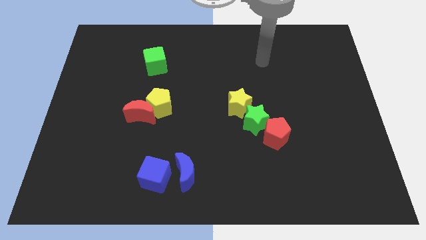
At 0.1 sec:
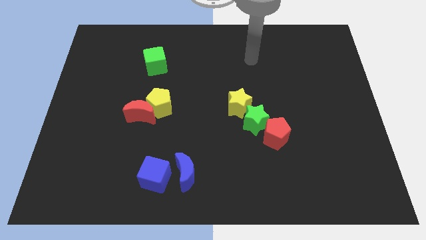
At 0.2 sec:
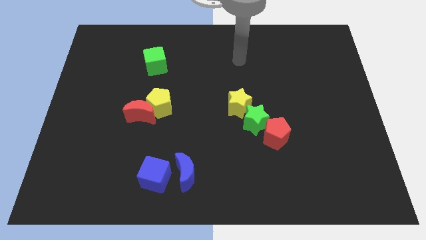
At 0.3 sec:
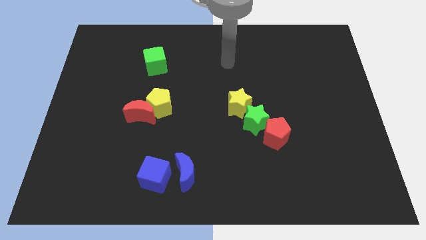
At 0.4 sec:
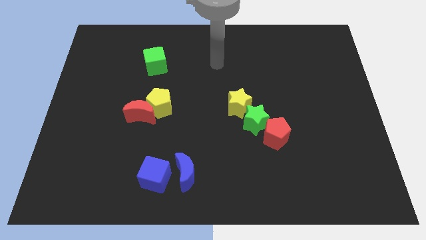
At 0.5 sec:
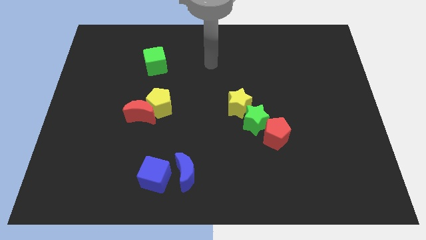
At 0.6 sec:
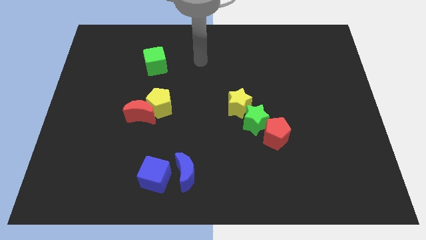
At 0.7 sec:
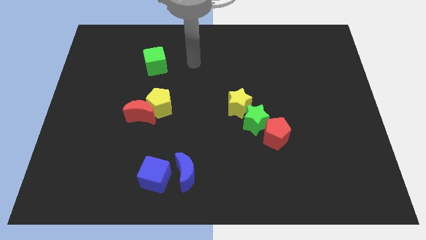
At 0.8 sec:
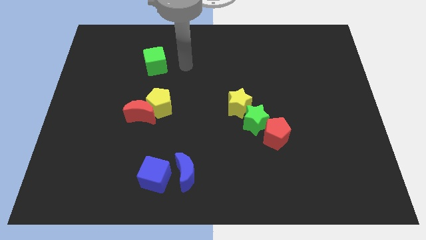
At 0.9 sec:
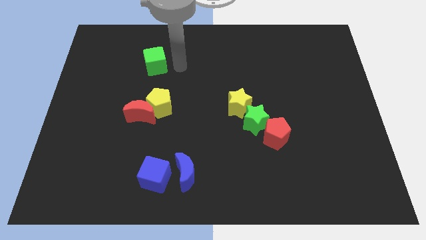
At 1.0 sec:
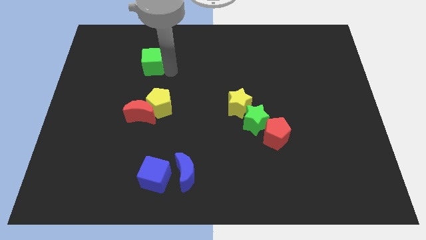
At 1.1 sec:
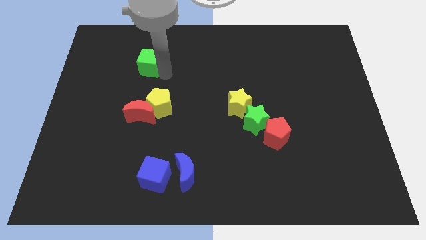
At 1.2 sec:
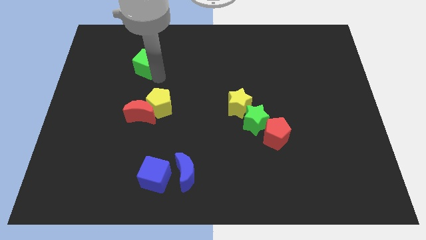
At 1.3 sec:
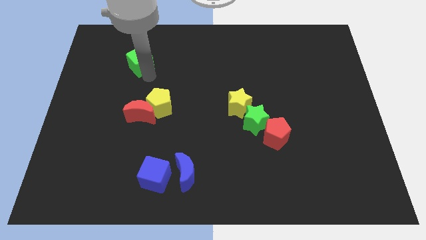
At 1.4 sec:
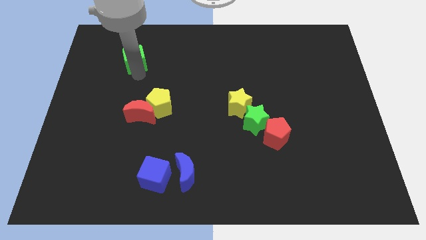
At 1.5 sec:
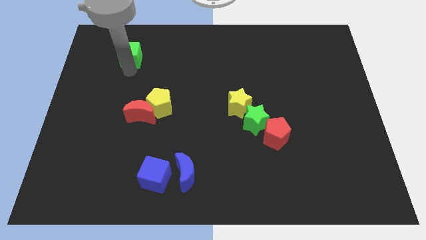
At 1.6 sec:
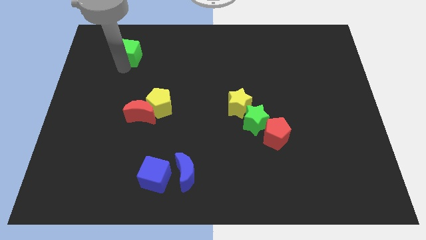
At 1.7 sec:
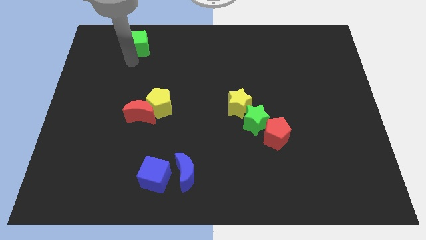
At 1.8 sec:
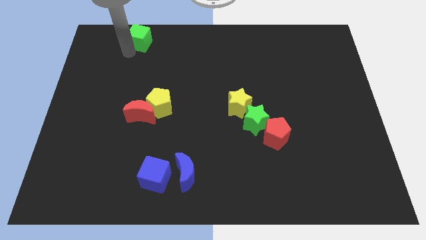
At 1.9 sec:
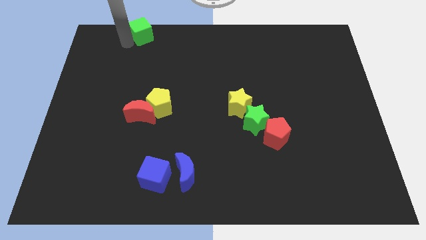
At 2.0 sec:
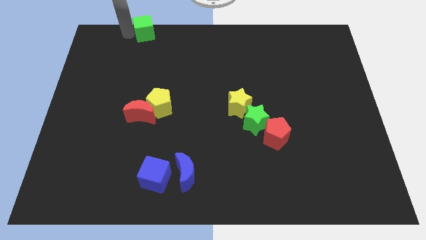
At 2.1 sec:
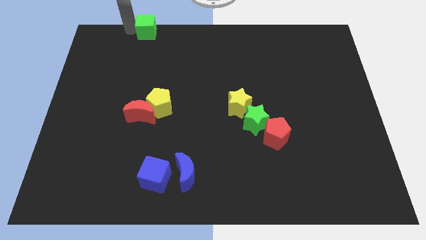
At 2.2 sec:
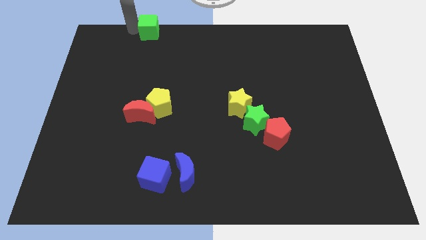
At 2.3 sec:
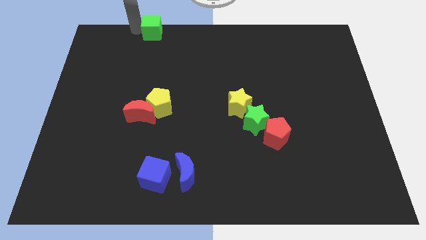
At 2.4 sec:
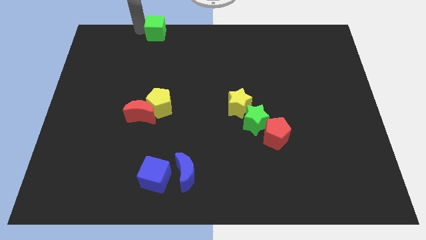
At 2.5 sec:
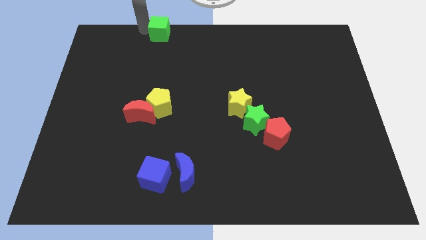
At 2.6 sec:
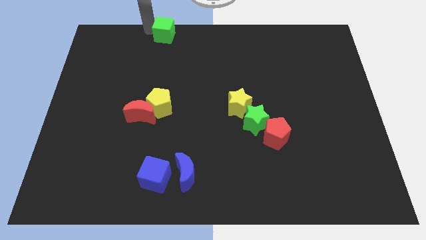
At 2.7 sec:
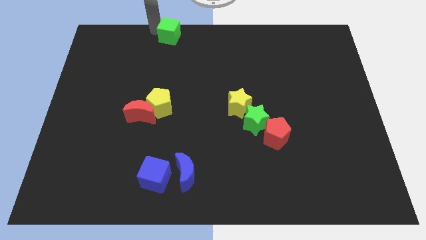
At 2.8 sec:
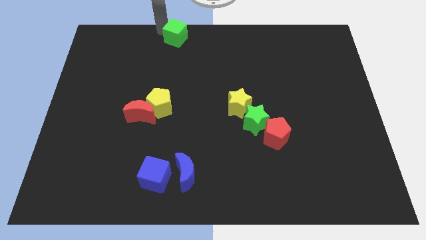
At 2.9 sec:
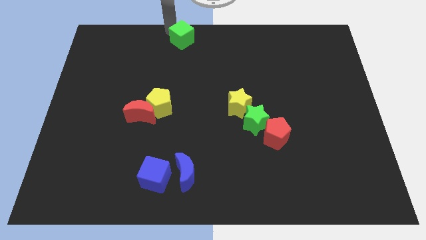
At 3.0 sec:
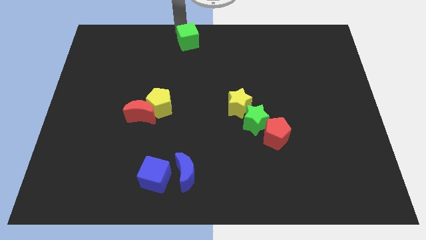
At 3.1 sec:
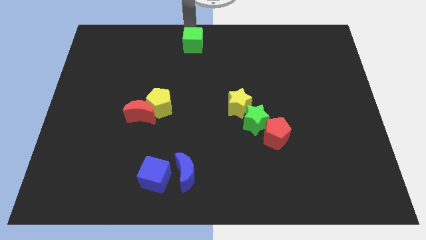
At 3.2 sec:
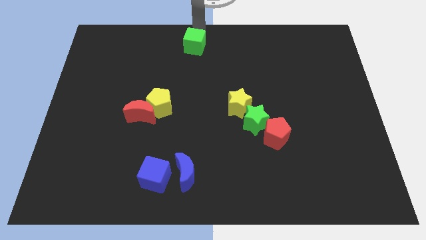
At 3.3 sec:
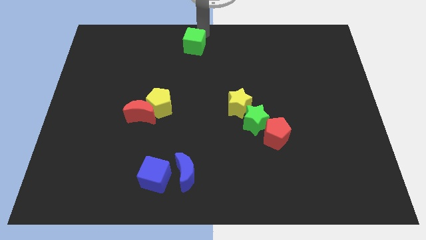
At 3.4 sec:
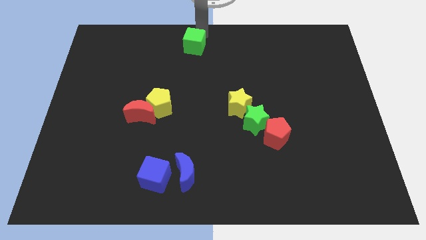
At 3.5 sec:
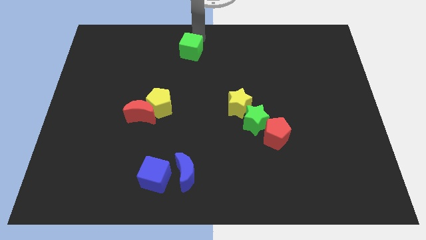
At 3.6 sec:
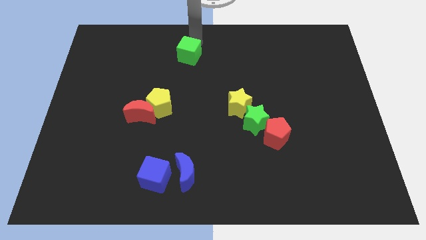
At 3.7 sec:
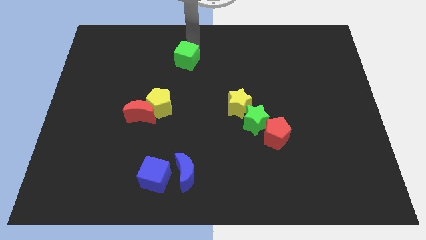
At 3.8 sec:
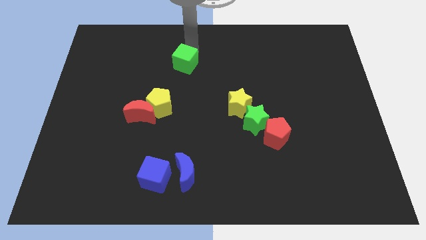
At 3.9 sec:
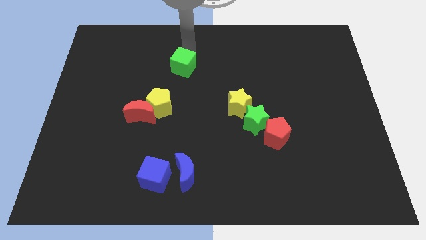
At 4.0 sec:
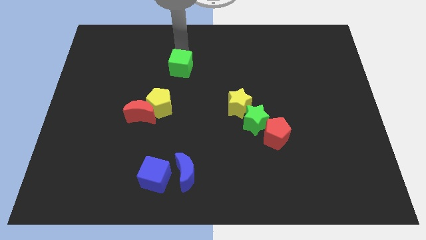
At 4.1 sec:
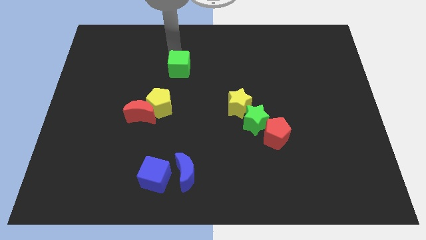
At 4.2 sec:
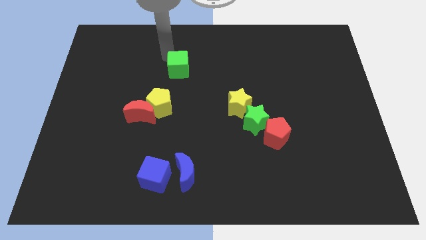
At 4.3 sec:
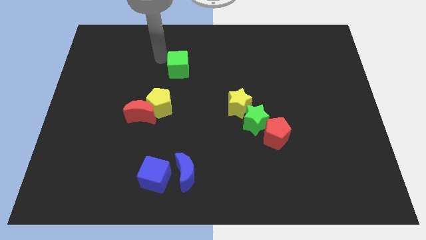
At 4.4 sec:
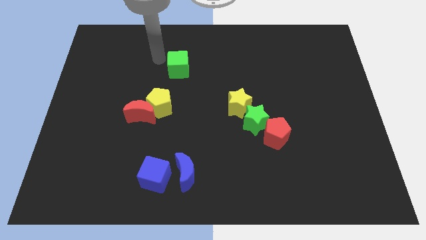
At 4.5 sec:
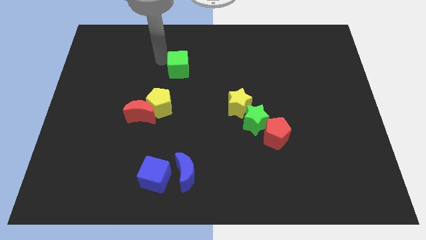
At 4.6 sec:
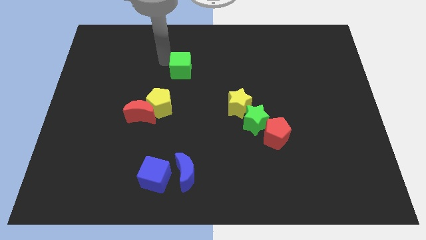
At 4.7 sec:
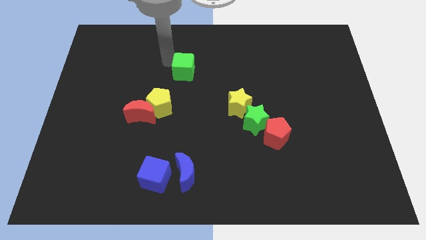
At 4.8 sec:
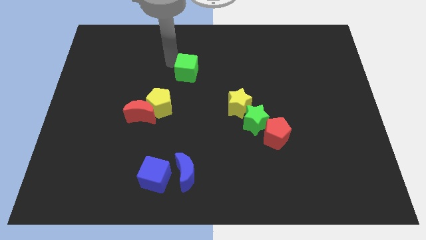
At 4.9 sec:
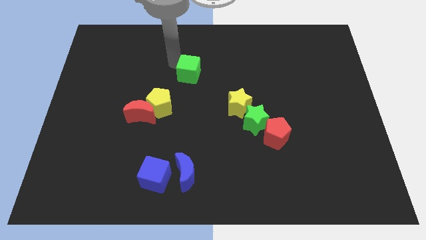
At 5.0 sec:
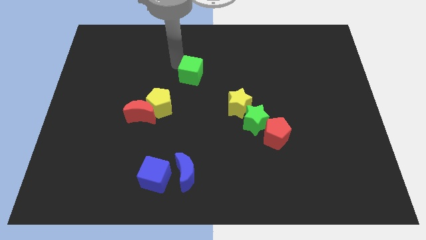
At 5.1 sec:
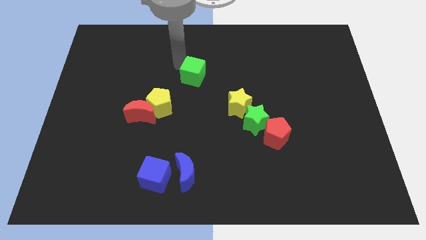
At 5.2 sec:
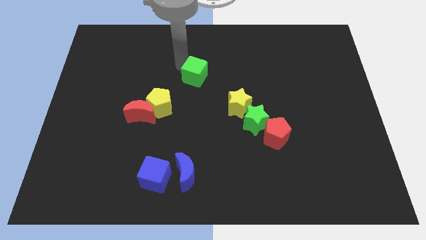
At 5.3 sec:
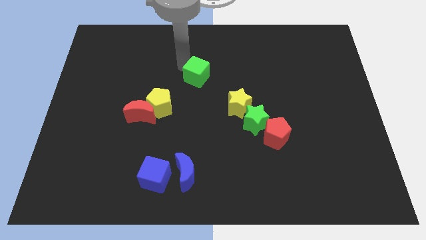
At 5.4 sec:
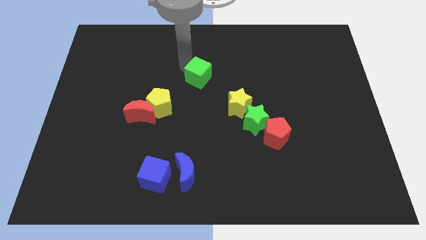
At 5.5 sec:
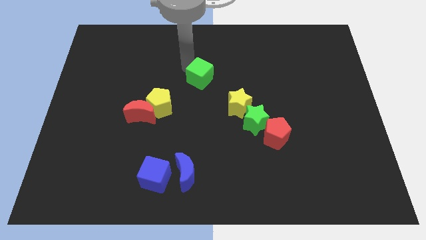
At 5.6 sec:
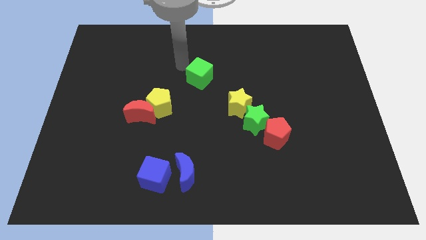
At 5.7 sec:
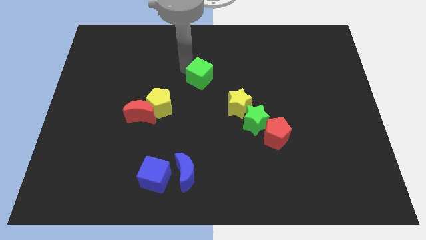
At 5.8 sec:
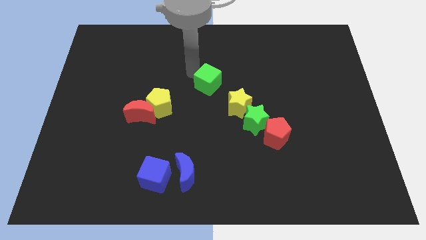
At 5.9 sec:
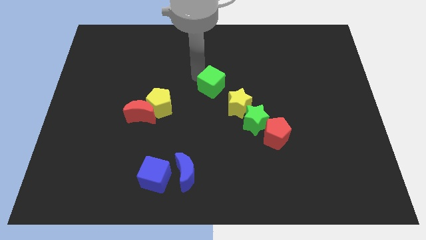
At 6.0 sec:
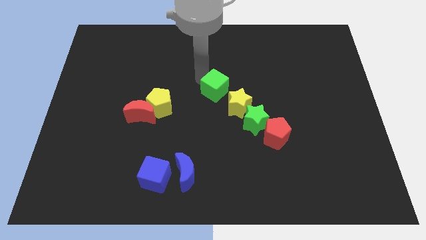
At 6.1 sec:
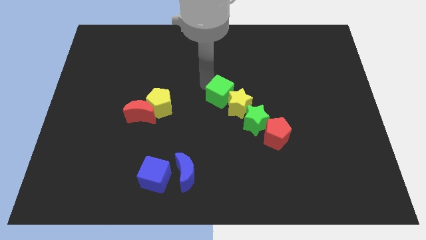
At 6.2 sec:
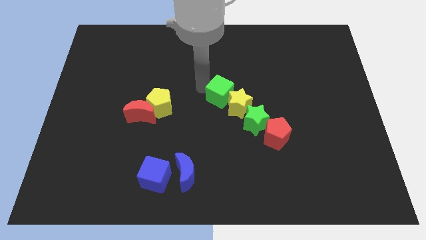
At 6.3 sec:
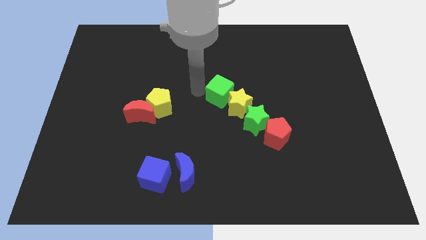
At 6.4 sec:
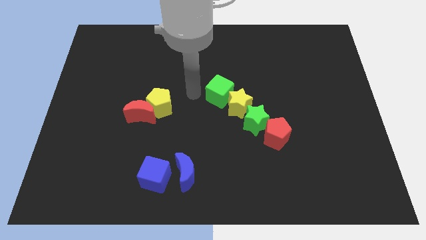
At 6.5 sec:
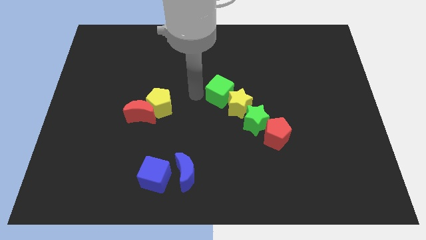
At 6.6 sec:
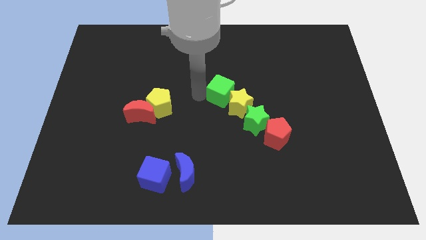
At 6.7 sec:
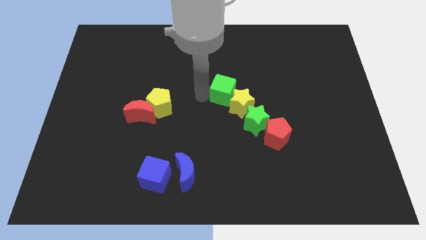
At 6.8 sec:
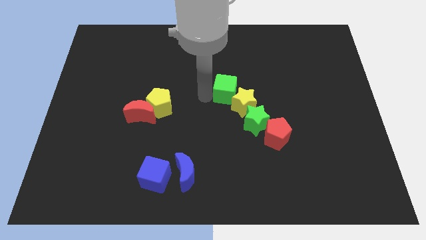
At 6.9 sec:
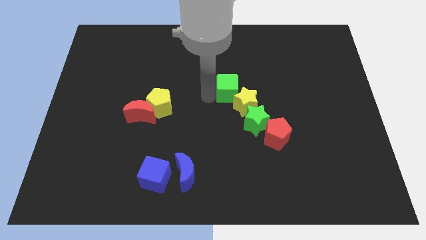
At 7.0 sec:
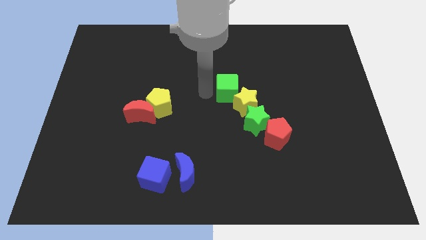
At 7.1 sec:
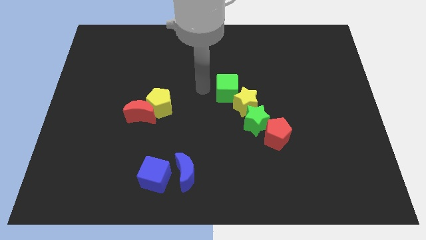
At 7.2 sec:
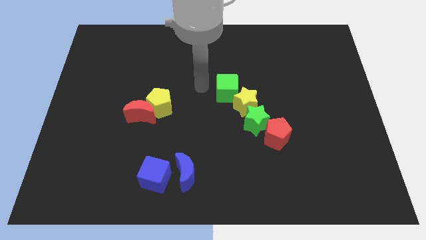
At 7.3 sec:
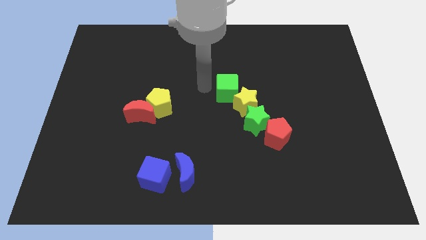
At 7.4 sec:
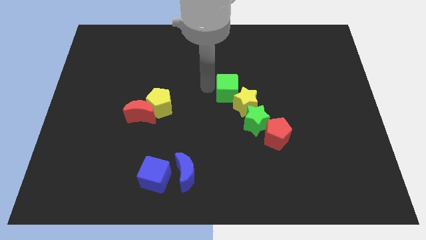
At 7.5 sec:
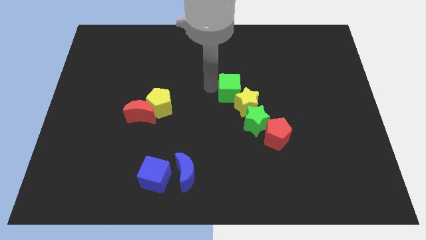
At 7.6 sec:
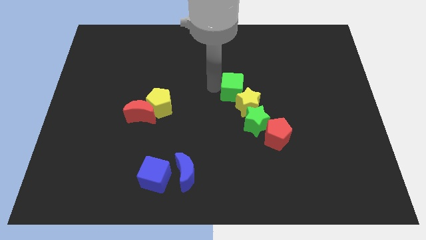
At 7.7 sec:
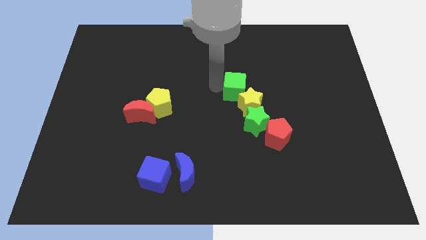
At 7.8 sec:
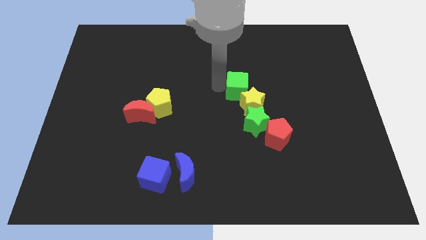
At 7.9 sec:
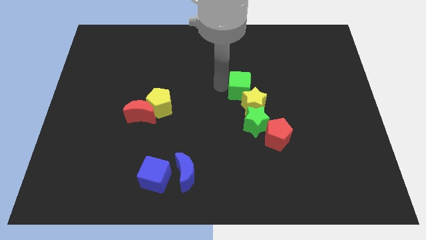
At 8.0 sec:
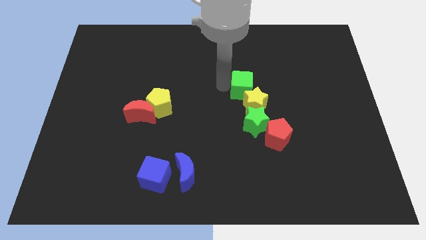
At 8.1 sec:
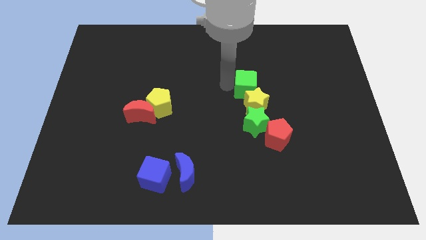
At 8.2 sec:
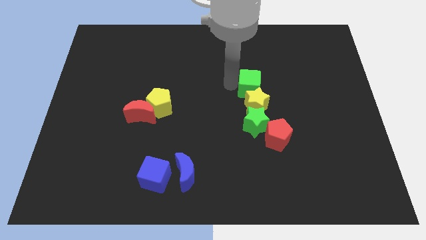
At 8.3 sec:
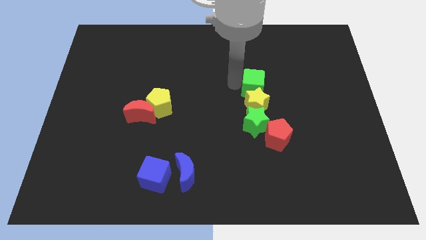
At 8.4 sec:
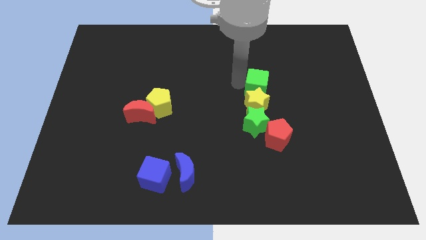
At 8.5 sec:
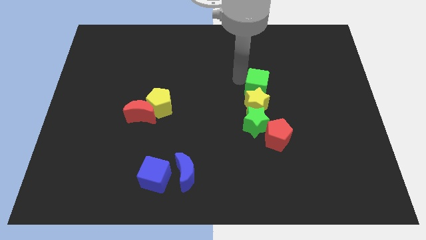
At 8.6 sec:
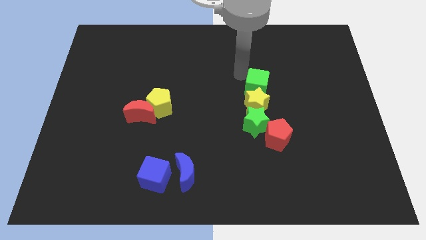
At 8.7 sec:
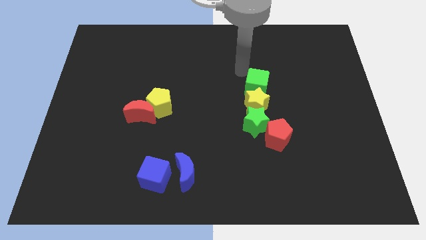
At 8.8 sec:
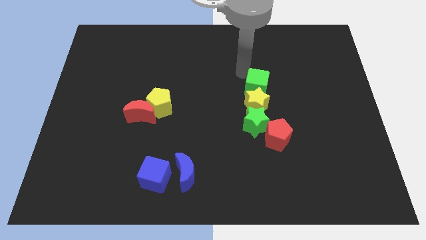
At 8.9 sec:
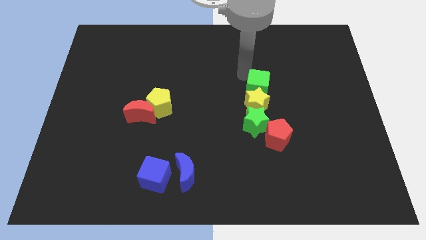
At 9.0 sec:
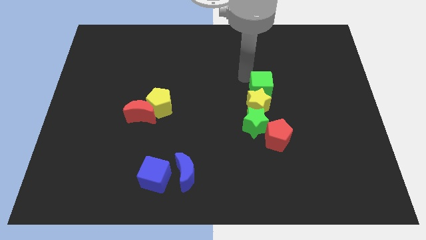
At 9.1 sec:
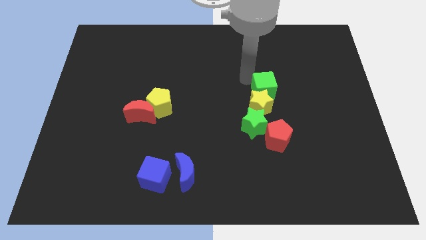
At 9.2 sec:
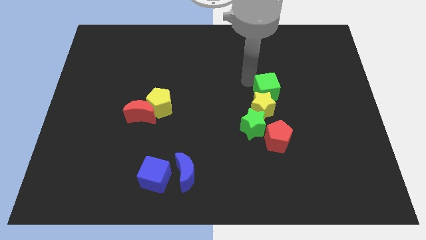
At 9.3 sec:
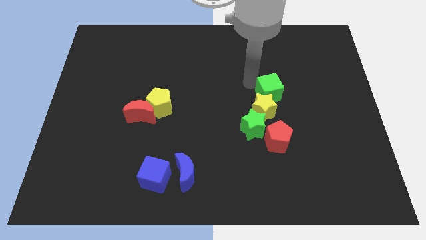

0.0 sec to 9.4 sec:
move the green cube to the top right of the green star
